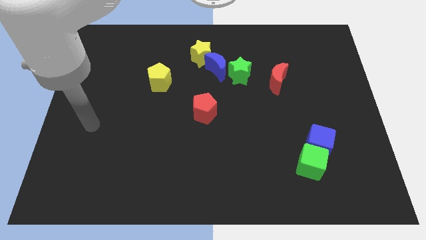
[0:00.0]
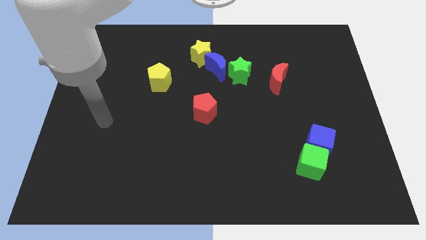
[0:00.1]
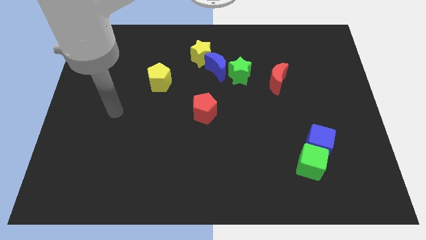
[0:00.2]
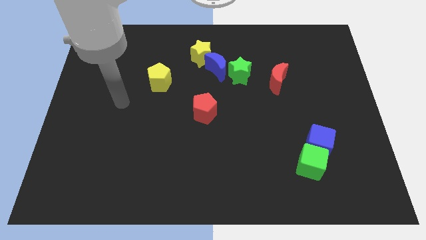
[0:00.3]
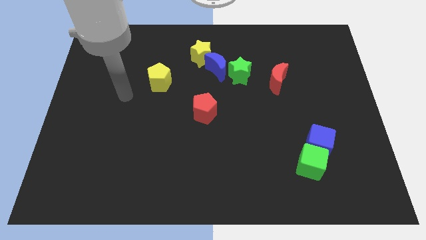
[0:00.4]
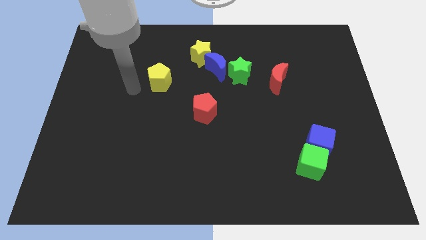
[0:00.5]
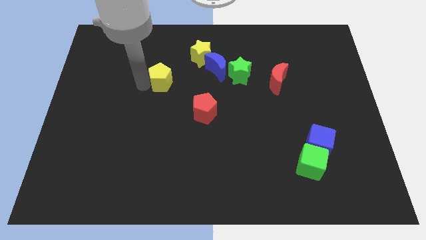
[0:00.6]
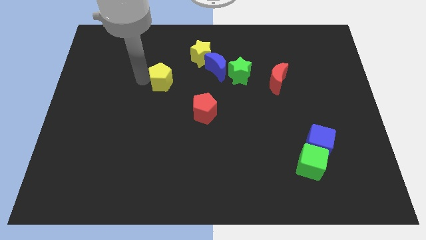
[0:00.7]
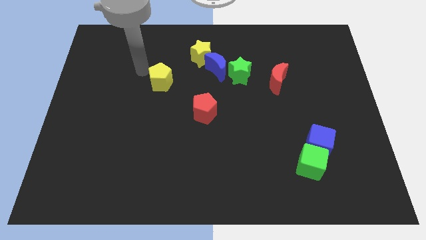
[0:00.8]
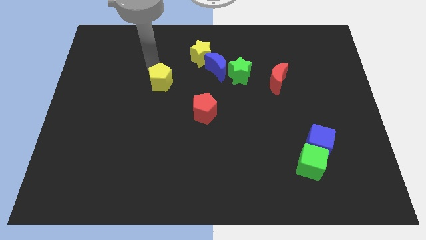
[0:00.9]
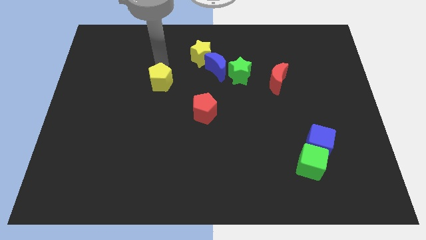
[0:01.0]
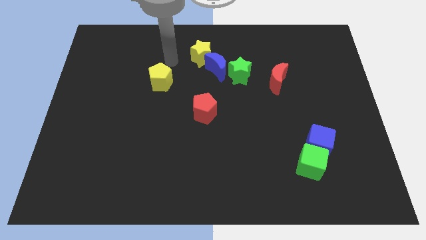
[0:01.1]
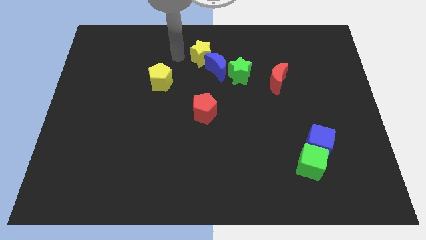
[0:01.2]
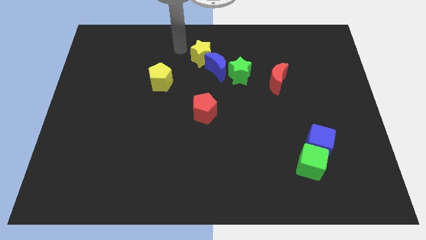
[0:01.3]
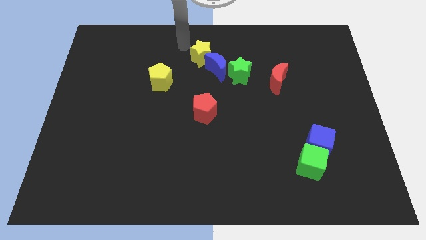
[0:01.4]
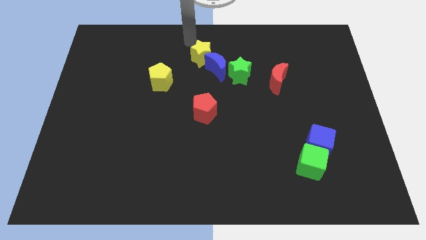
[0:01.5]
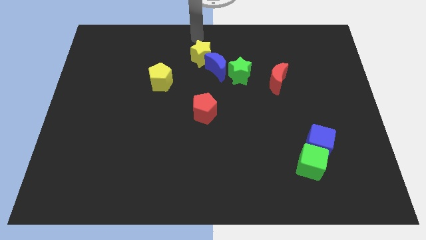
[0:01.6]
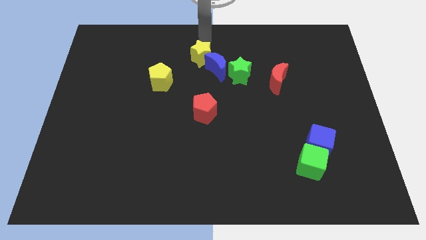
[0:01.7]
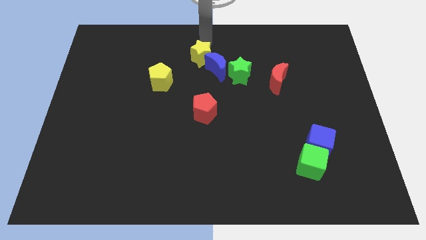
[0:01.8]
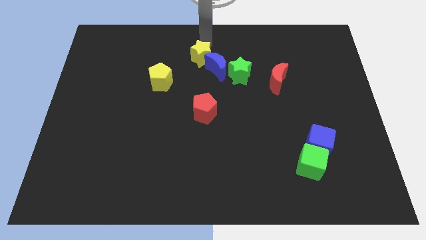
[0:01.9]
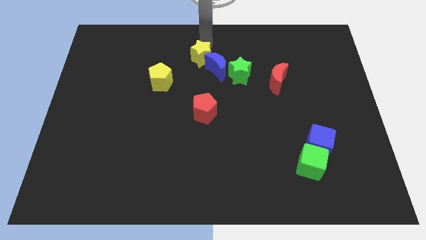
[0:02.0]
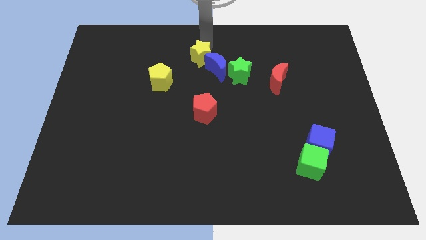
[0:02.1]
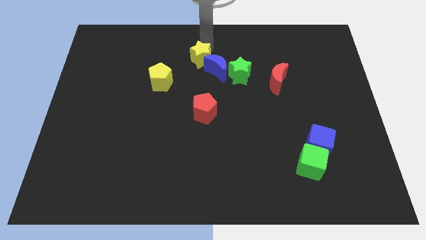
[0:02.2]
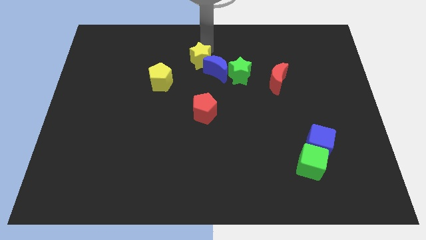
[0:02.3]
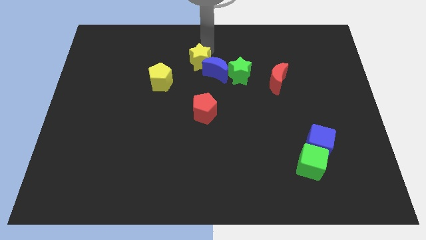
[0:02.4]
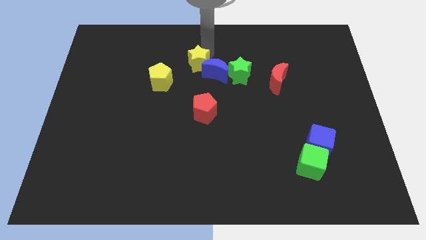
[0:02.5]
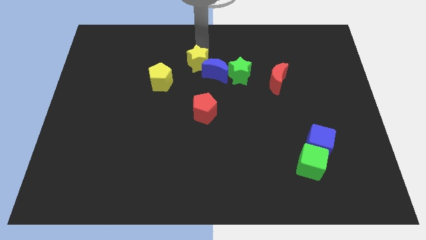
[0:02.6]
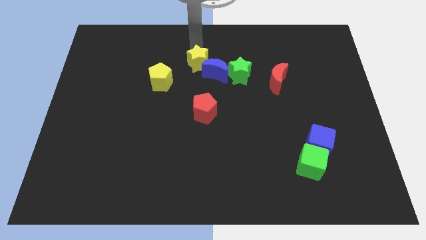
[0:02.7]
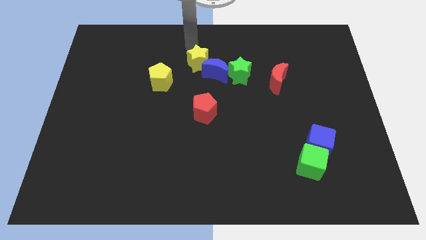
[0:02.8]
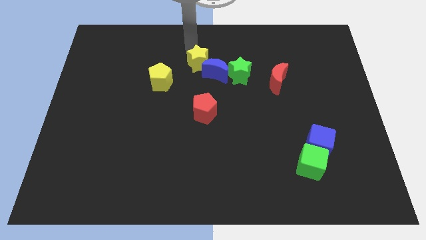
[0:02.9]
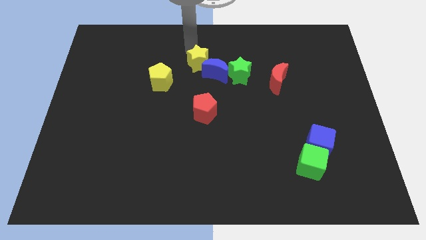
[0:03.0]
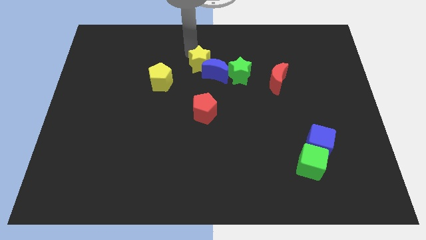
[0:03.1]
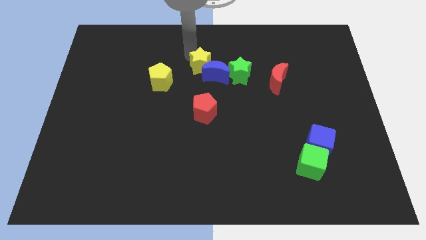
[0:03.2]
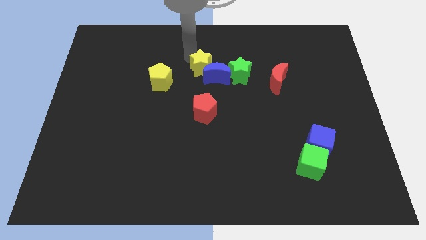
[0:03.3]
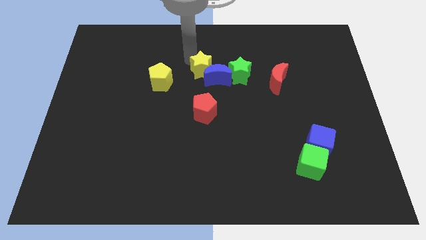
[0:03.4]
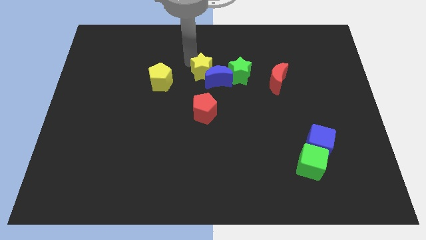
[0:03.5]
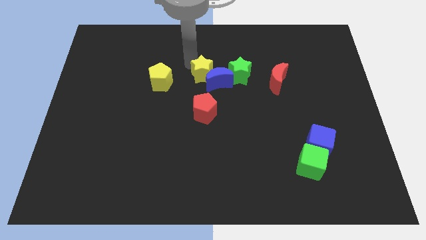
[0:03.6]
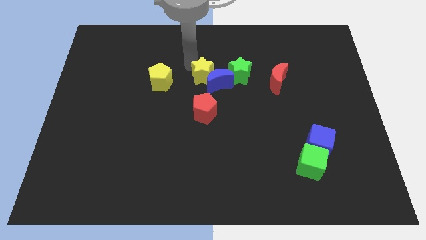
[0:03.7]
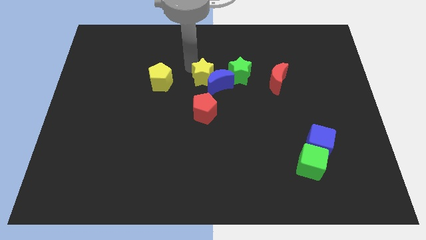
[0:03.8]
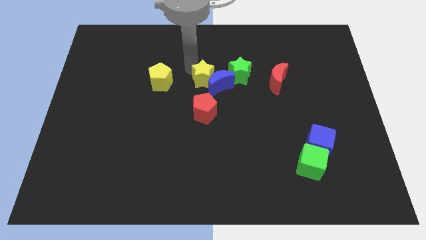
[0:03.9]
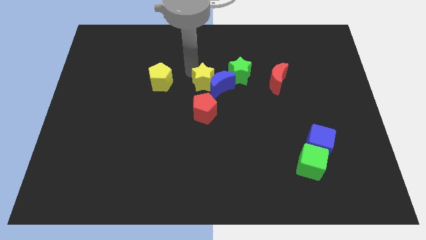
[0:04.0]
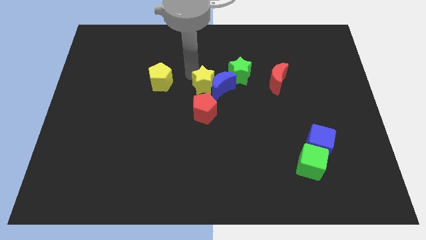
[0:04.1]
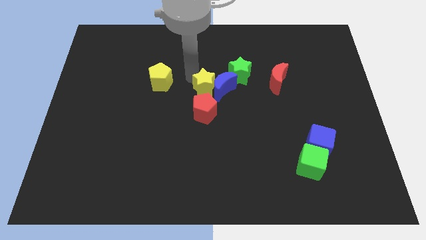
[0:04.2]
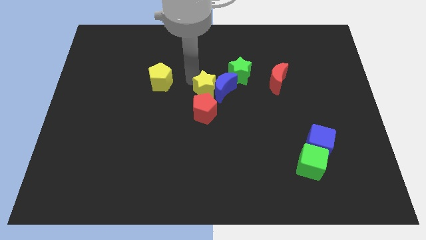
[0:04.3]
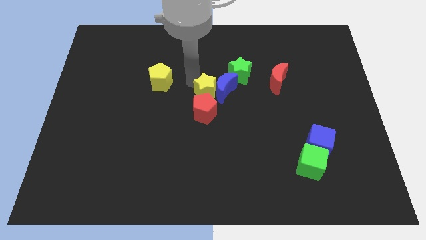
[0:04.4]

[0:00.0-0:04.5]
push the yellow star close to the red pentagon

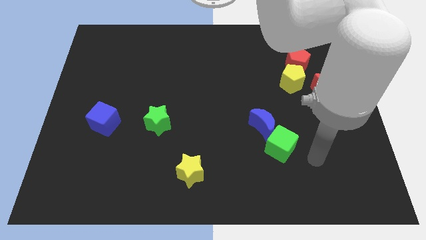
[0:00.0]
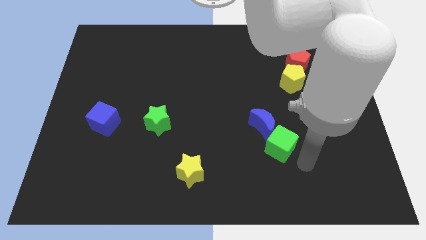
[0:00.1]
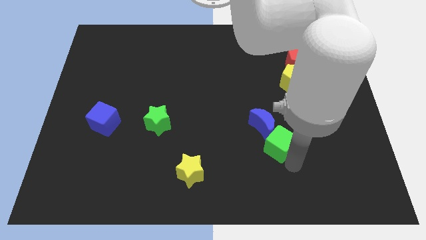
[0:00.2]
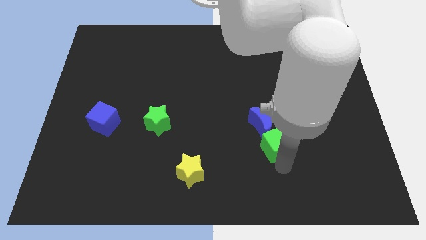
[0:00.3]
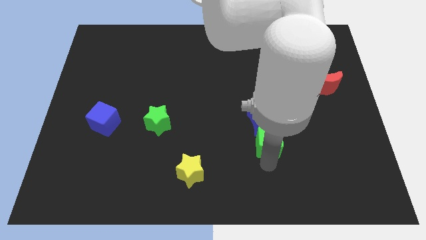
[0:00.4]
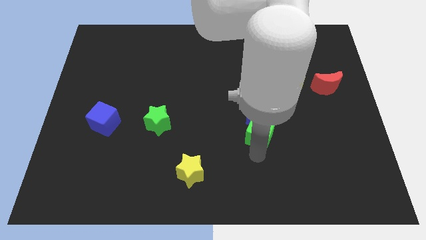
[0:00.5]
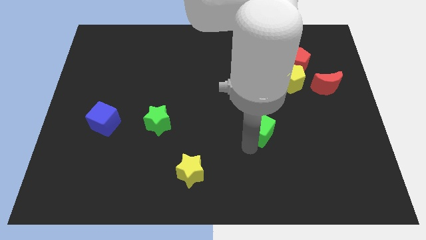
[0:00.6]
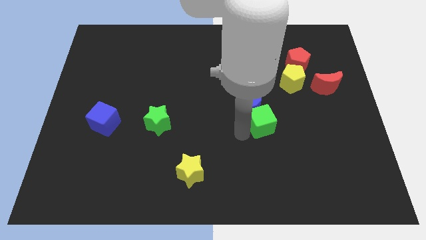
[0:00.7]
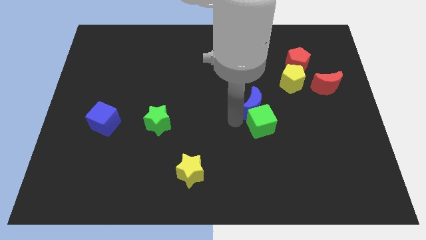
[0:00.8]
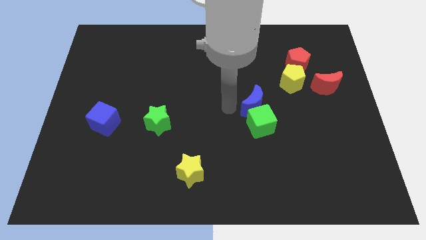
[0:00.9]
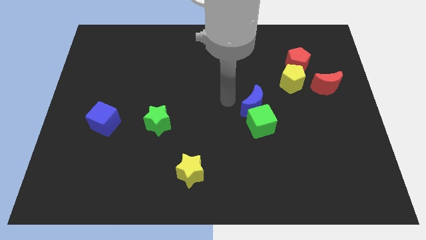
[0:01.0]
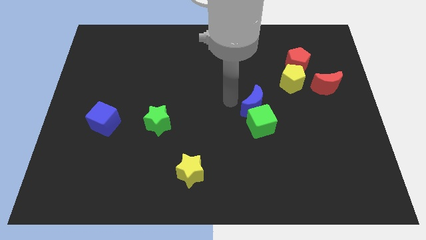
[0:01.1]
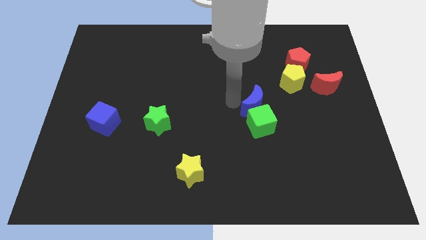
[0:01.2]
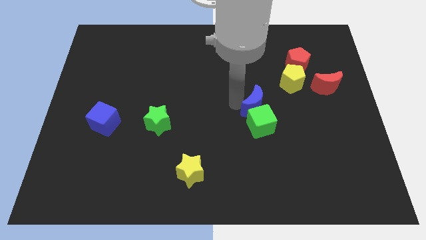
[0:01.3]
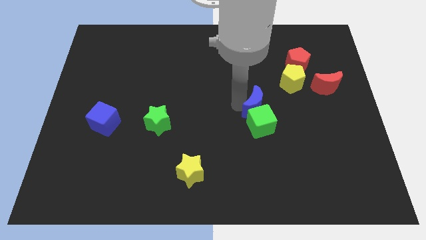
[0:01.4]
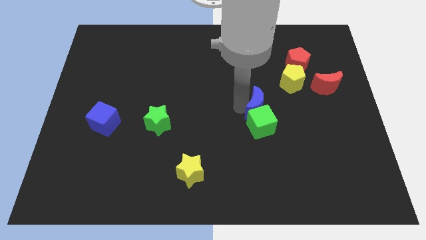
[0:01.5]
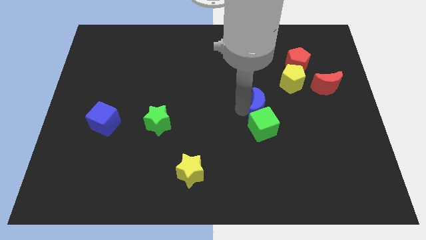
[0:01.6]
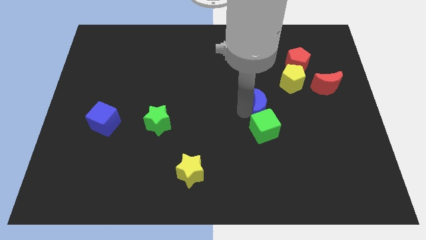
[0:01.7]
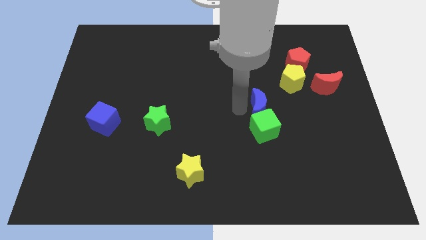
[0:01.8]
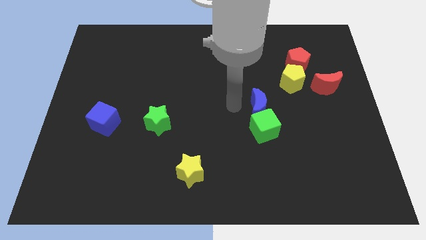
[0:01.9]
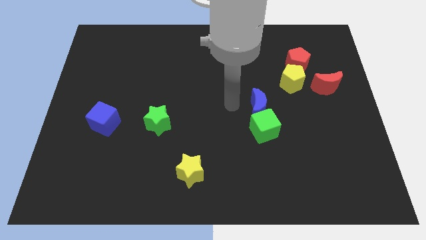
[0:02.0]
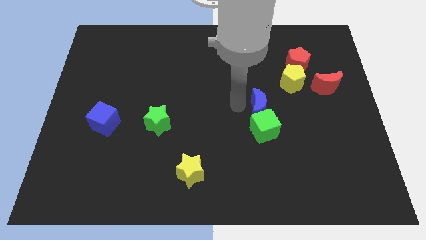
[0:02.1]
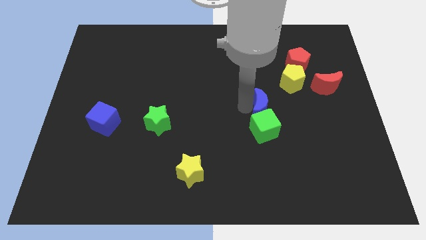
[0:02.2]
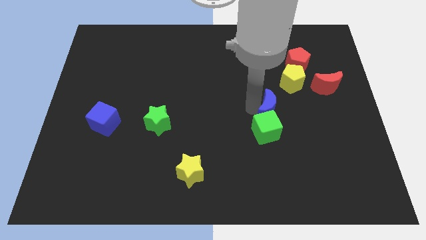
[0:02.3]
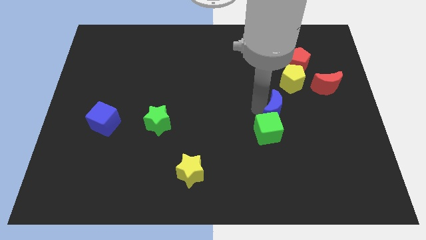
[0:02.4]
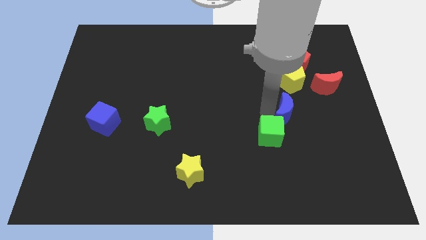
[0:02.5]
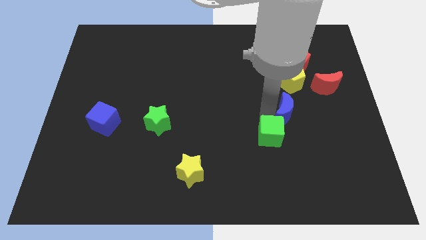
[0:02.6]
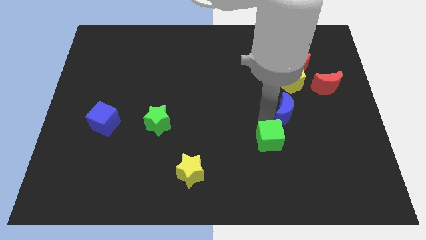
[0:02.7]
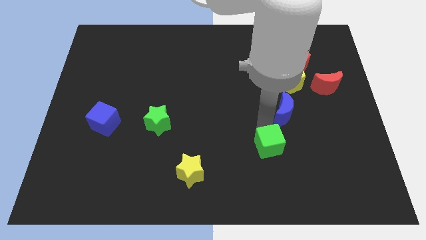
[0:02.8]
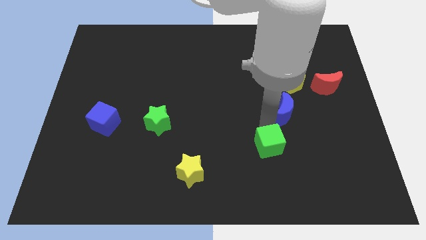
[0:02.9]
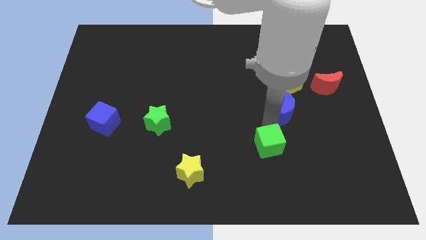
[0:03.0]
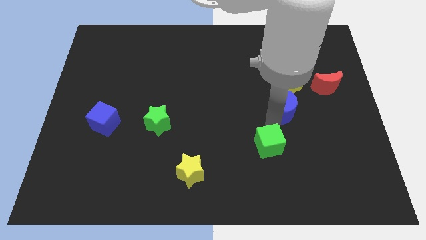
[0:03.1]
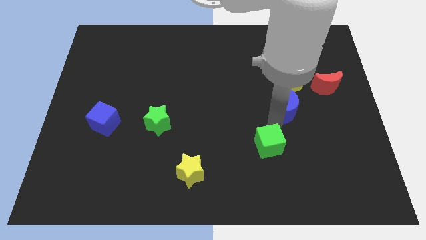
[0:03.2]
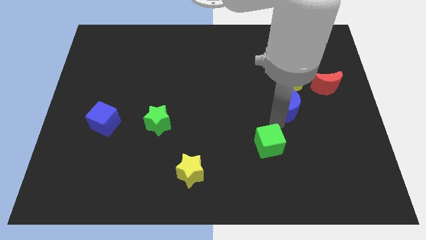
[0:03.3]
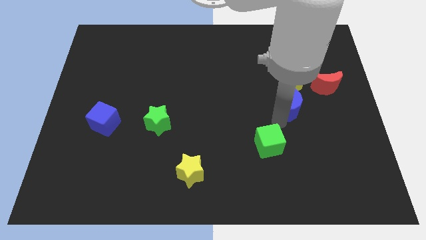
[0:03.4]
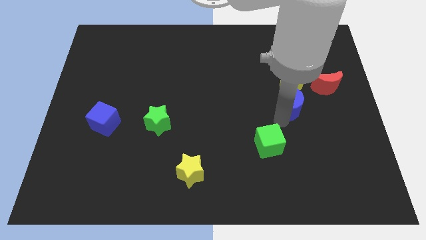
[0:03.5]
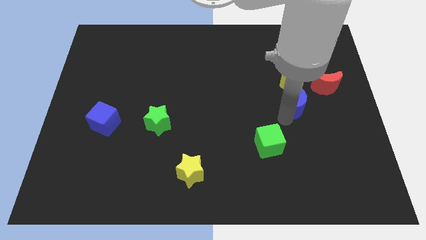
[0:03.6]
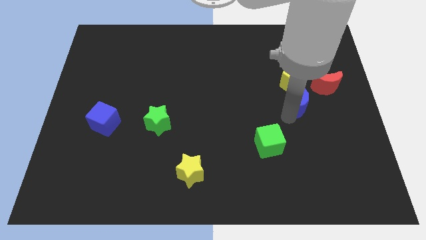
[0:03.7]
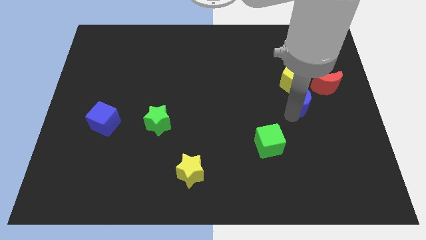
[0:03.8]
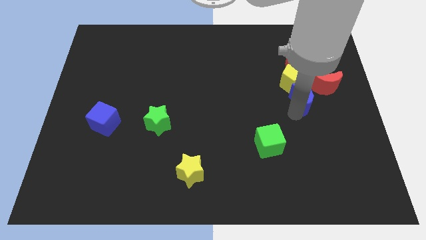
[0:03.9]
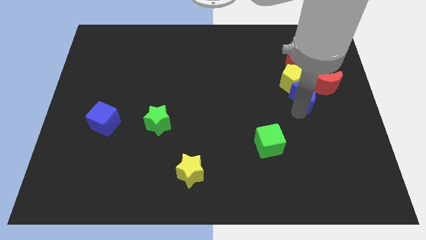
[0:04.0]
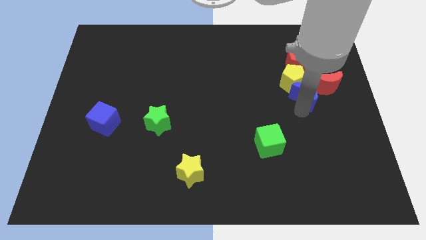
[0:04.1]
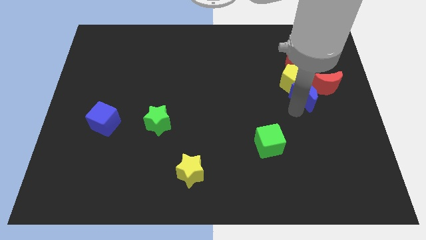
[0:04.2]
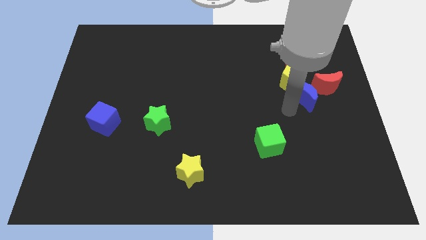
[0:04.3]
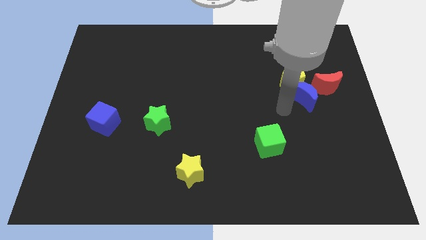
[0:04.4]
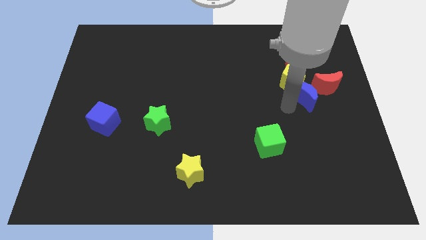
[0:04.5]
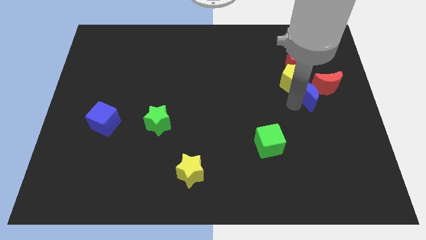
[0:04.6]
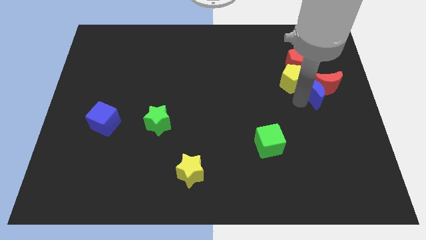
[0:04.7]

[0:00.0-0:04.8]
move the blue moon next to the red moon
